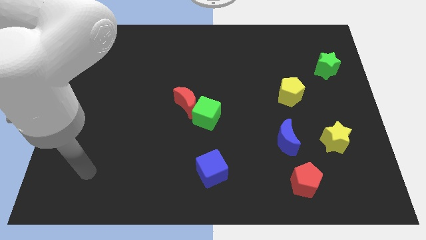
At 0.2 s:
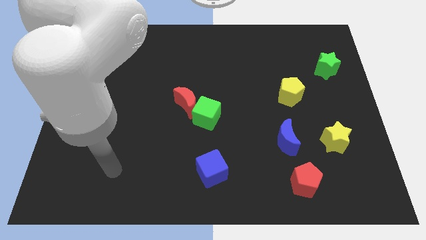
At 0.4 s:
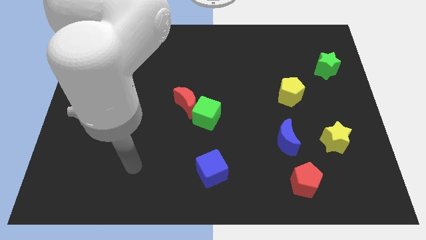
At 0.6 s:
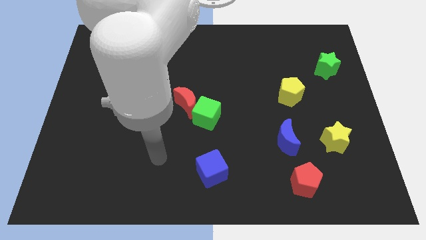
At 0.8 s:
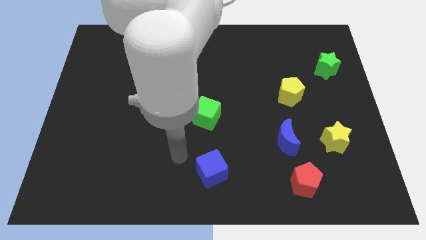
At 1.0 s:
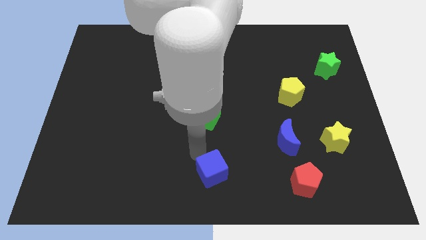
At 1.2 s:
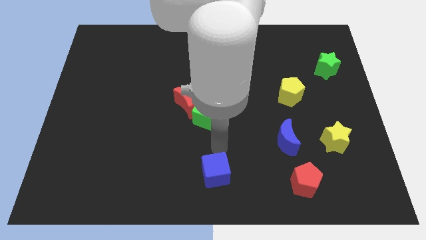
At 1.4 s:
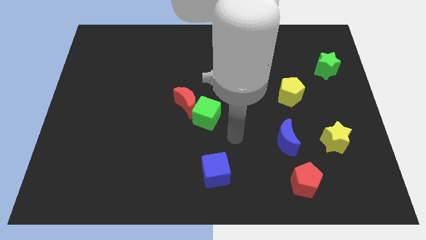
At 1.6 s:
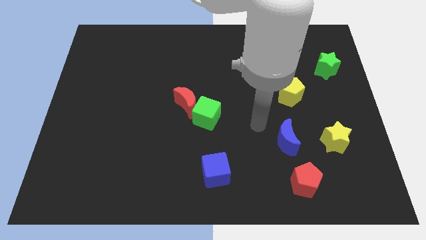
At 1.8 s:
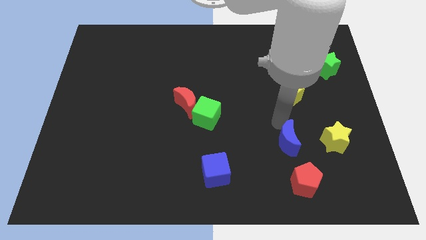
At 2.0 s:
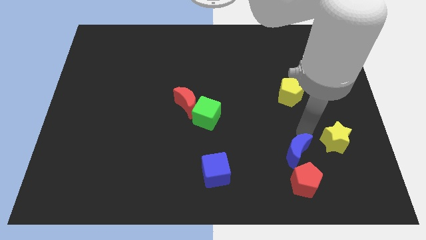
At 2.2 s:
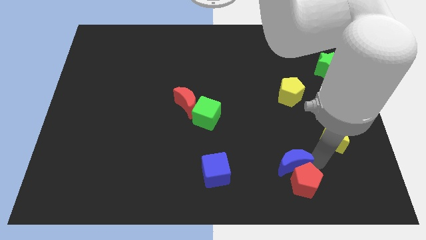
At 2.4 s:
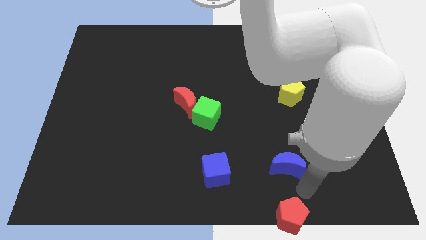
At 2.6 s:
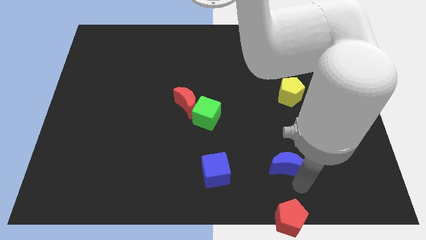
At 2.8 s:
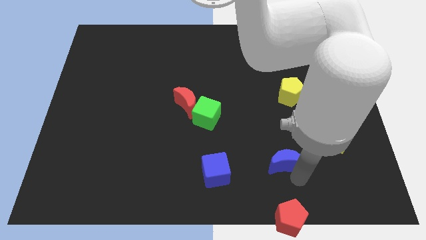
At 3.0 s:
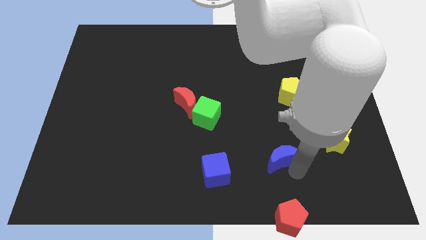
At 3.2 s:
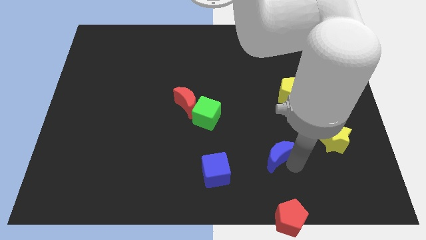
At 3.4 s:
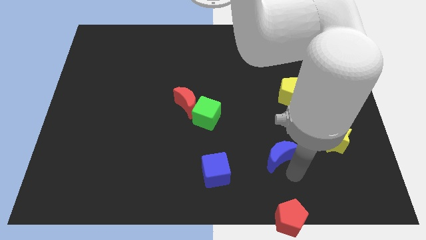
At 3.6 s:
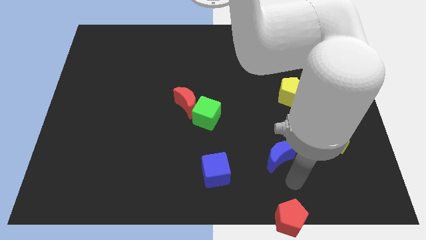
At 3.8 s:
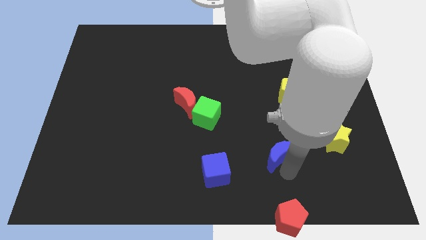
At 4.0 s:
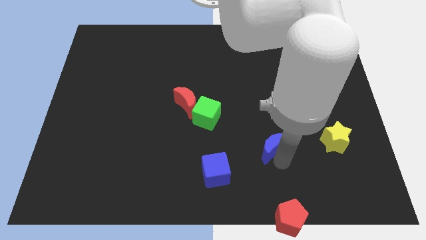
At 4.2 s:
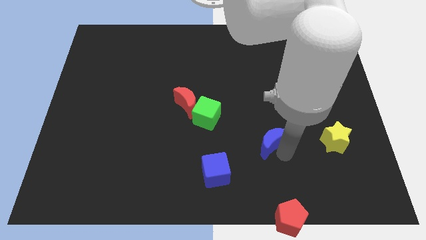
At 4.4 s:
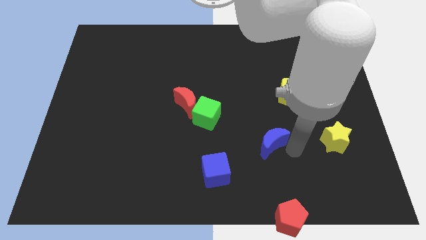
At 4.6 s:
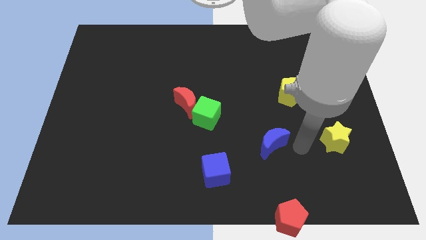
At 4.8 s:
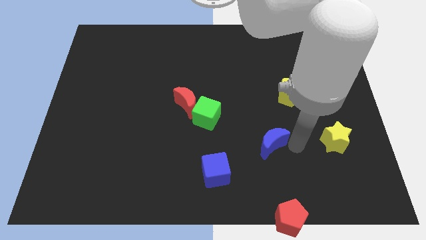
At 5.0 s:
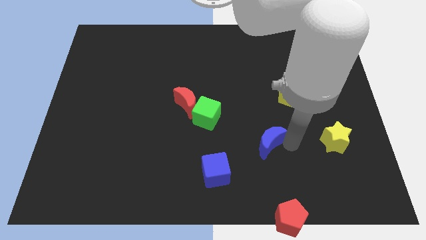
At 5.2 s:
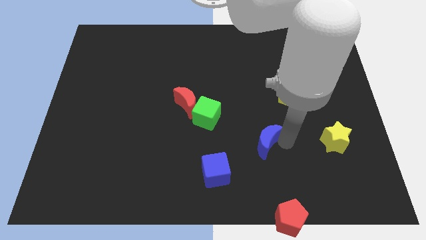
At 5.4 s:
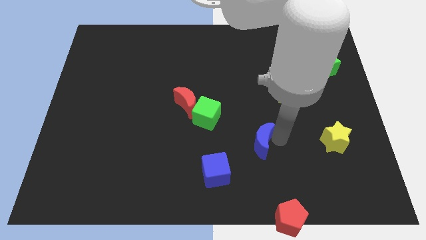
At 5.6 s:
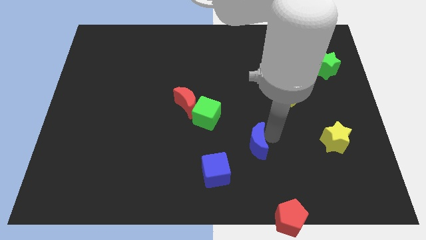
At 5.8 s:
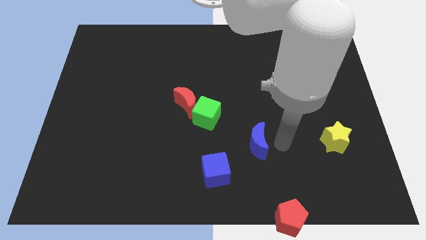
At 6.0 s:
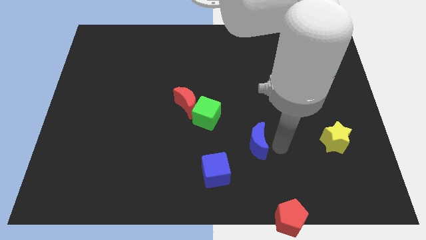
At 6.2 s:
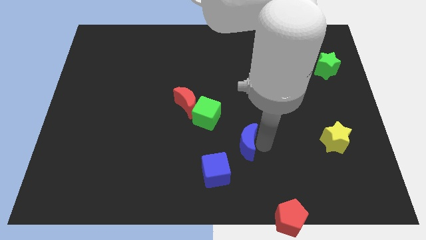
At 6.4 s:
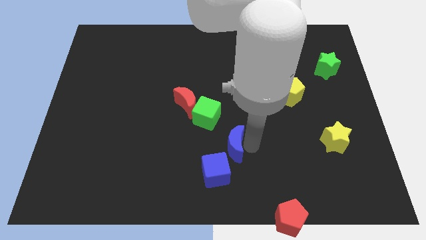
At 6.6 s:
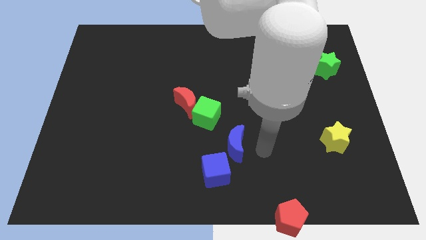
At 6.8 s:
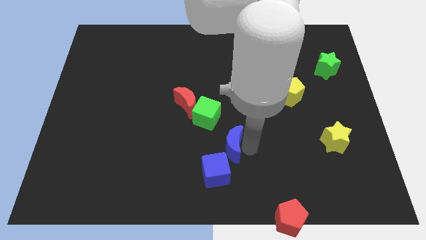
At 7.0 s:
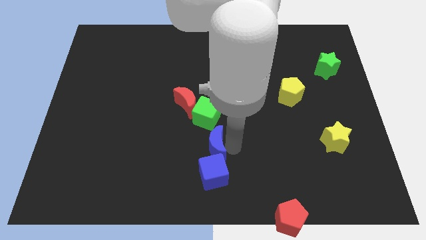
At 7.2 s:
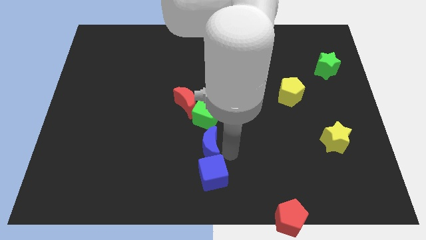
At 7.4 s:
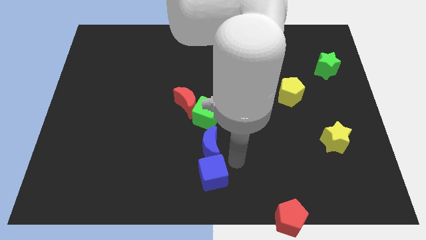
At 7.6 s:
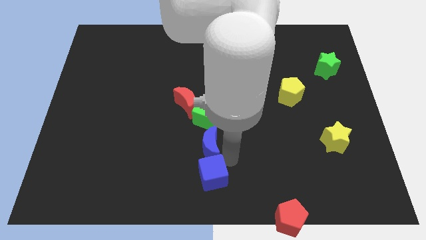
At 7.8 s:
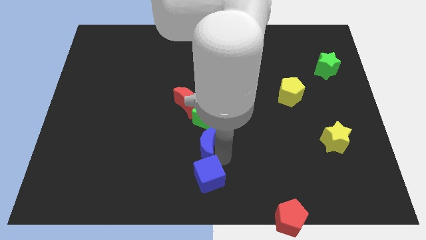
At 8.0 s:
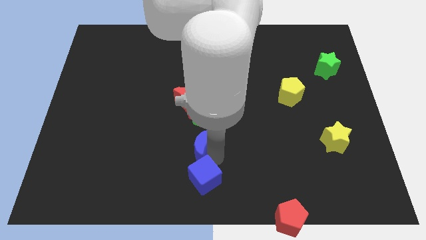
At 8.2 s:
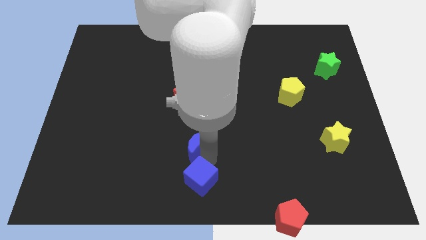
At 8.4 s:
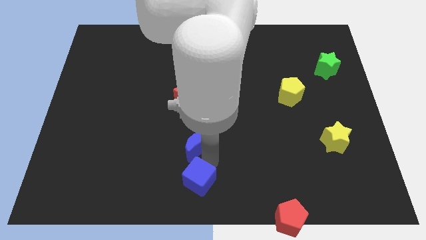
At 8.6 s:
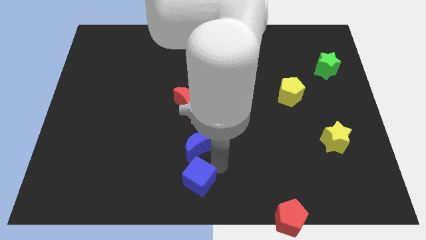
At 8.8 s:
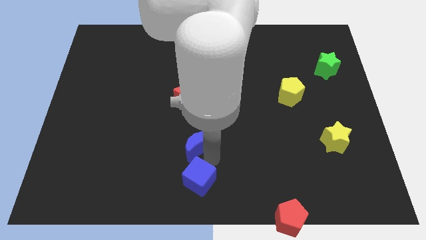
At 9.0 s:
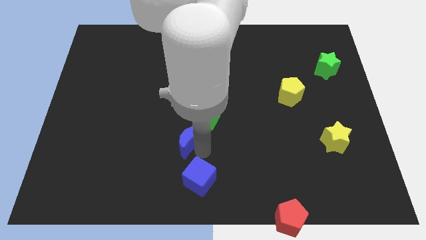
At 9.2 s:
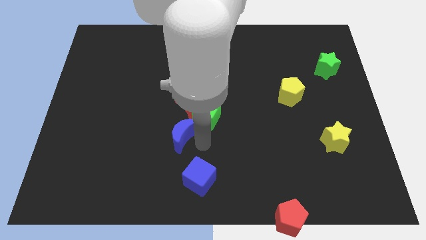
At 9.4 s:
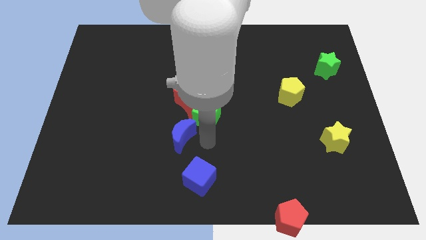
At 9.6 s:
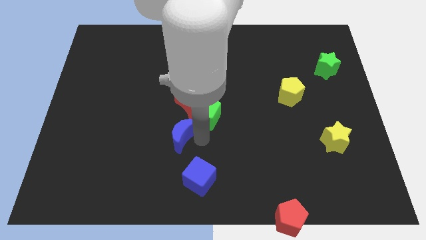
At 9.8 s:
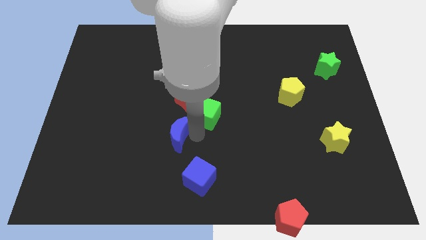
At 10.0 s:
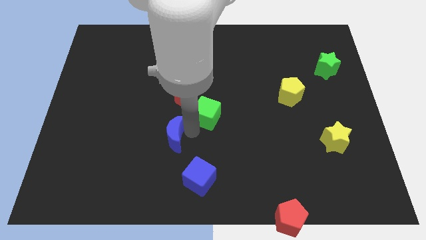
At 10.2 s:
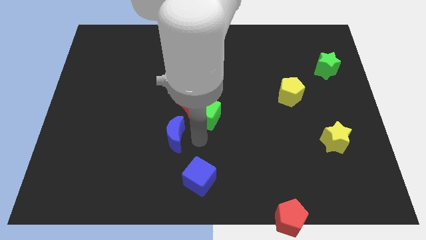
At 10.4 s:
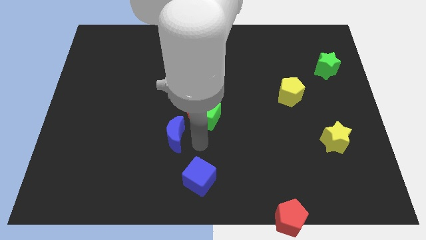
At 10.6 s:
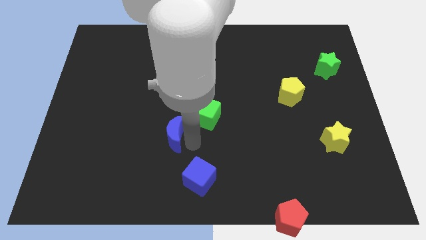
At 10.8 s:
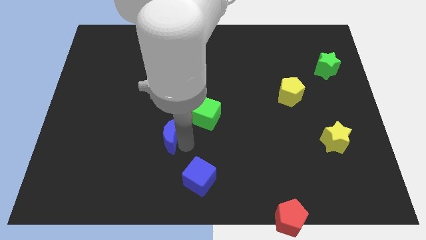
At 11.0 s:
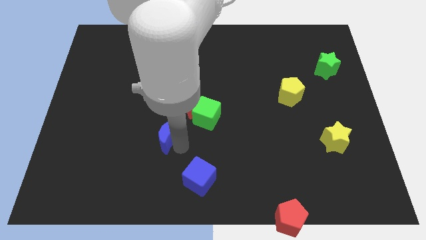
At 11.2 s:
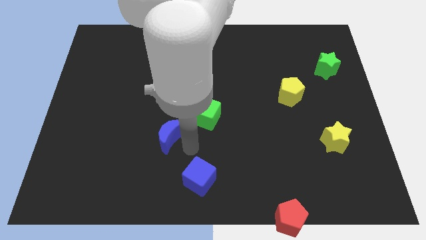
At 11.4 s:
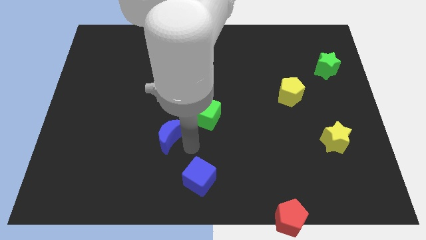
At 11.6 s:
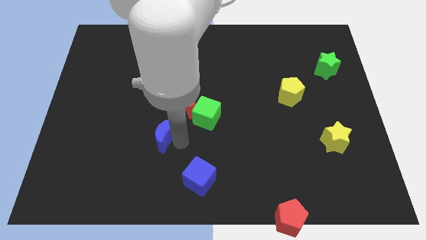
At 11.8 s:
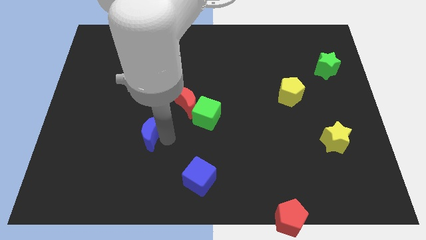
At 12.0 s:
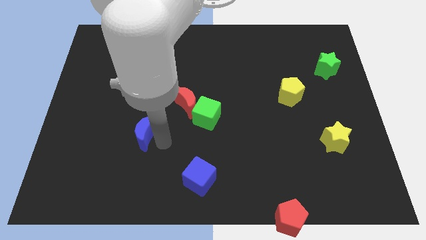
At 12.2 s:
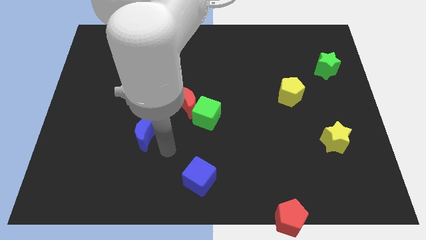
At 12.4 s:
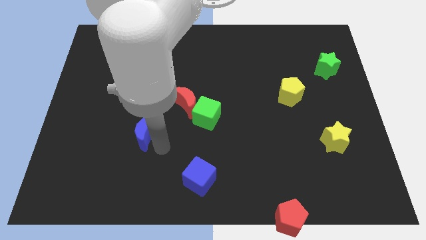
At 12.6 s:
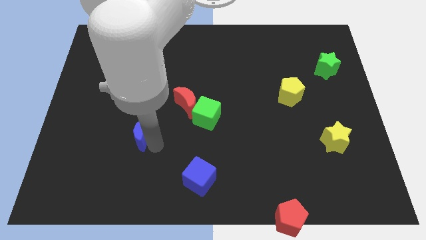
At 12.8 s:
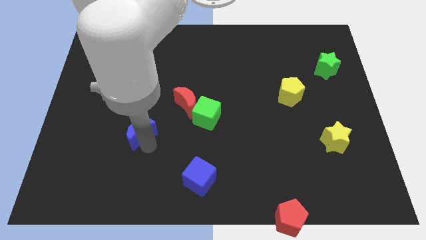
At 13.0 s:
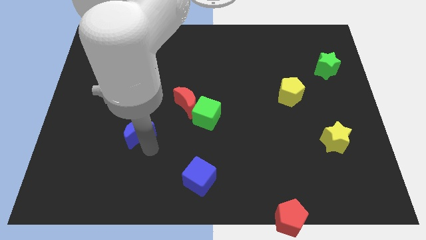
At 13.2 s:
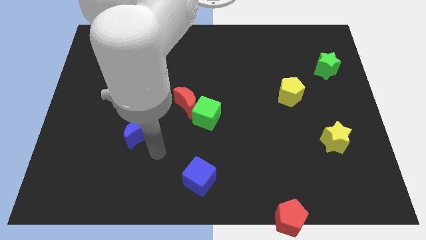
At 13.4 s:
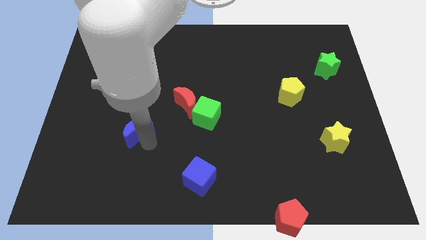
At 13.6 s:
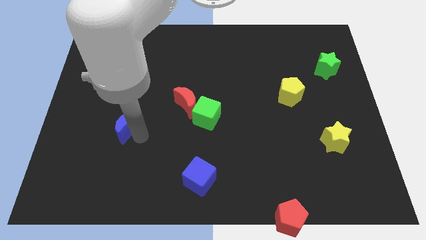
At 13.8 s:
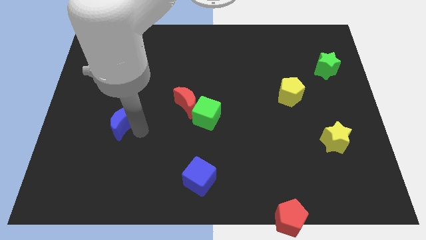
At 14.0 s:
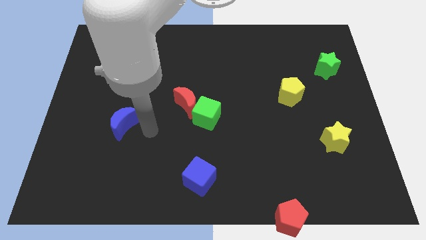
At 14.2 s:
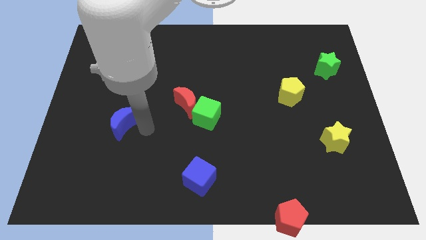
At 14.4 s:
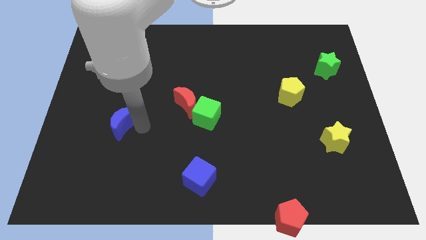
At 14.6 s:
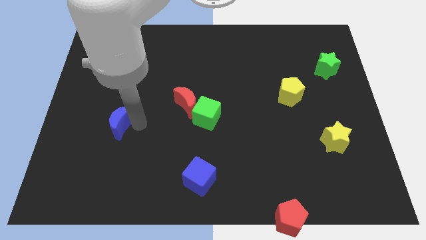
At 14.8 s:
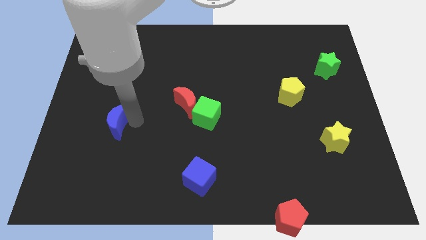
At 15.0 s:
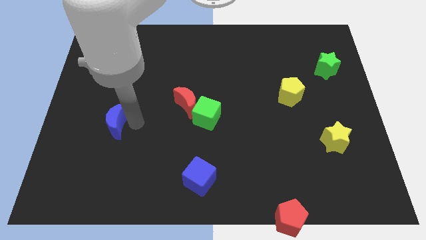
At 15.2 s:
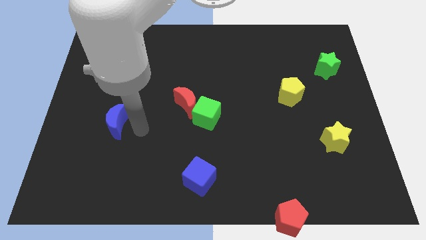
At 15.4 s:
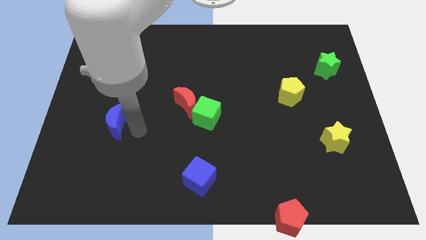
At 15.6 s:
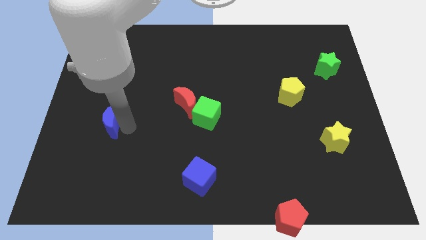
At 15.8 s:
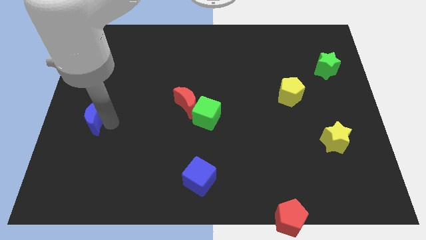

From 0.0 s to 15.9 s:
slide the blue moon to the center left
